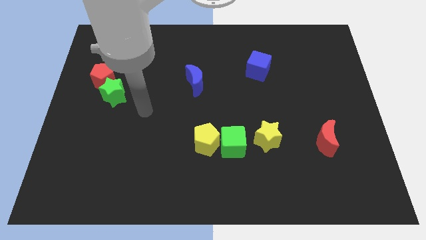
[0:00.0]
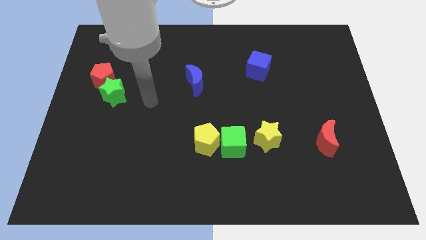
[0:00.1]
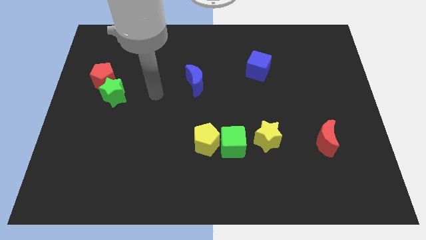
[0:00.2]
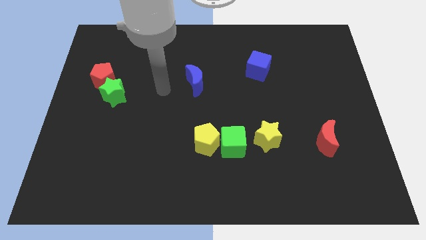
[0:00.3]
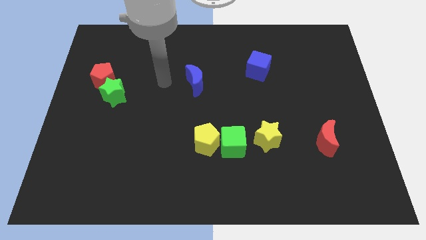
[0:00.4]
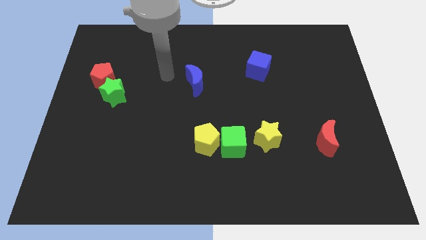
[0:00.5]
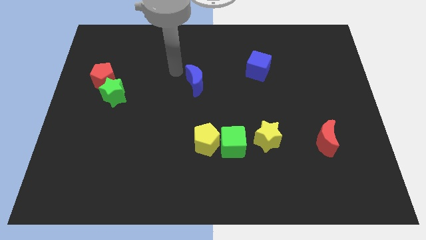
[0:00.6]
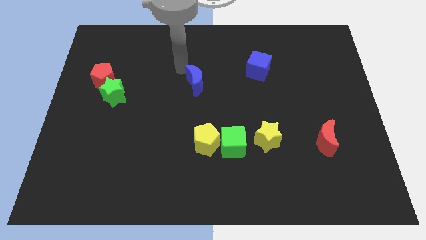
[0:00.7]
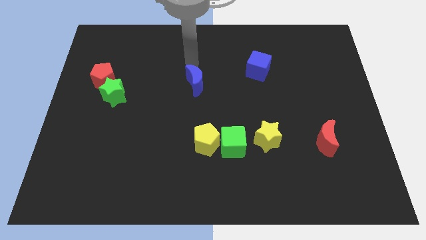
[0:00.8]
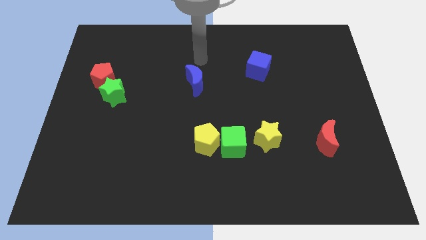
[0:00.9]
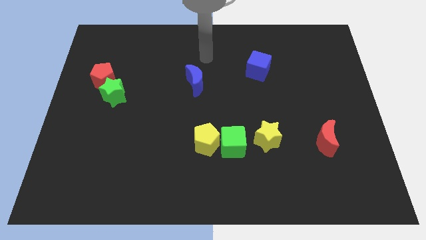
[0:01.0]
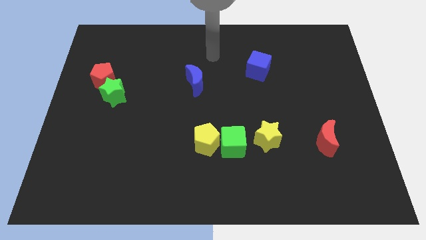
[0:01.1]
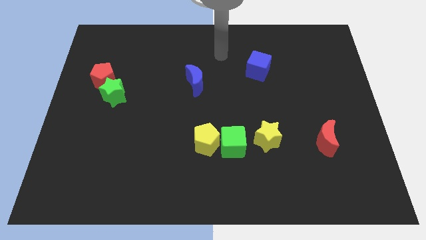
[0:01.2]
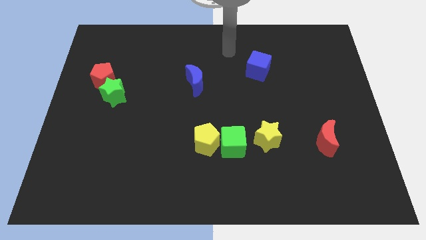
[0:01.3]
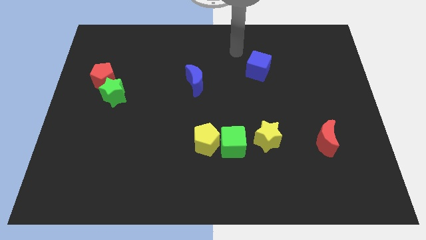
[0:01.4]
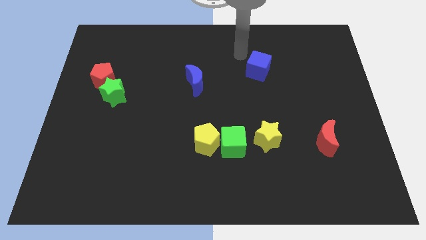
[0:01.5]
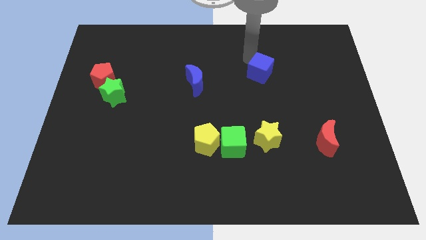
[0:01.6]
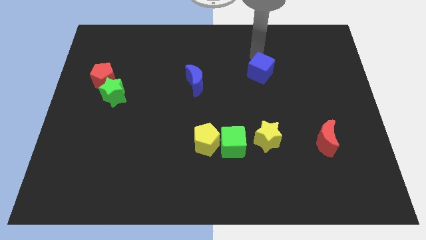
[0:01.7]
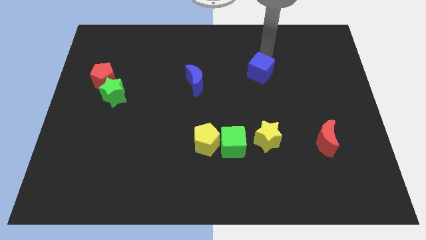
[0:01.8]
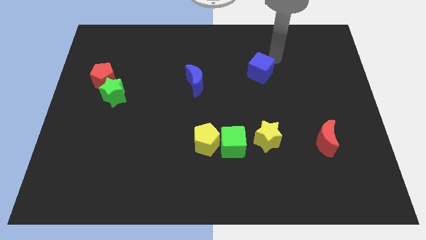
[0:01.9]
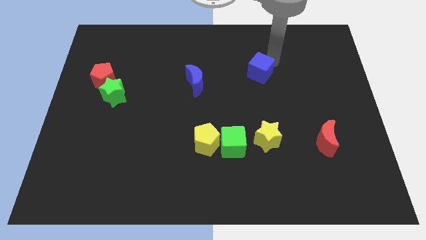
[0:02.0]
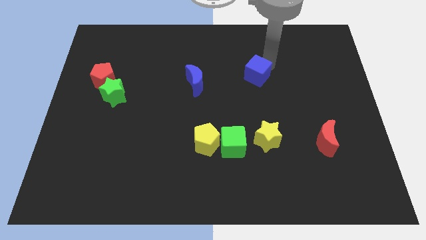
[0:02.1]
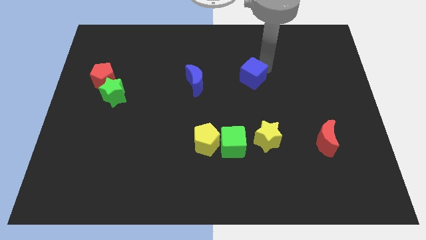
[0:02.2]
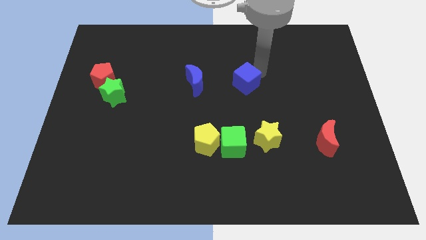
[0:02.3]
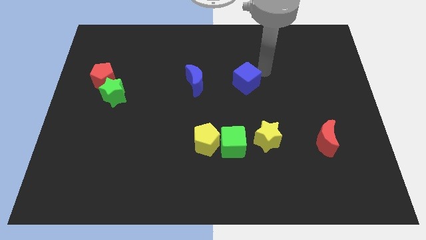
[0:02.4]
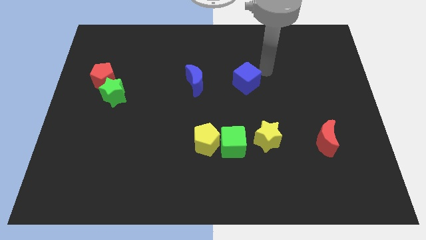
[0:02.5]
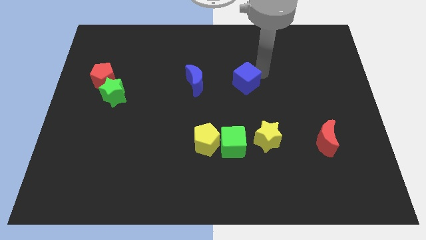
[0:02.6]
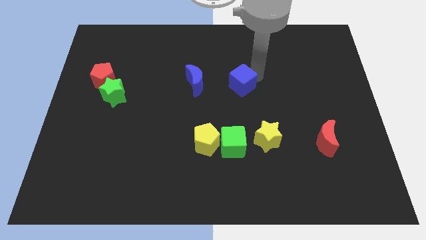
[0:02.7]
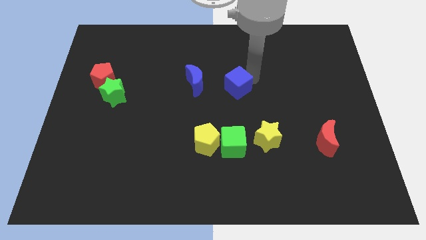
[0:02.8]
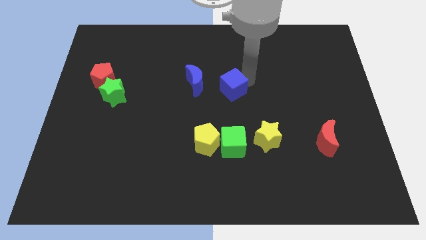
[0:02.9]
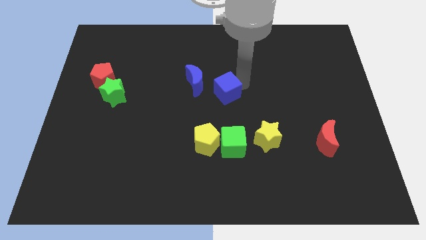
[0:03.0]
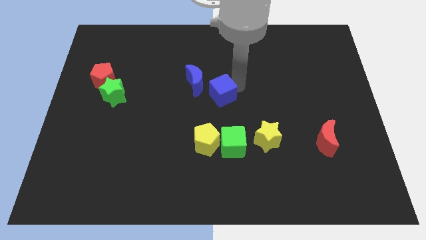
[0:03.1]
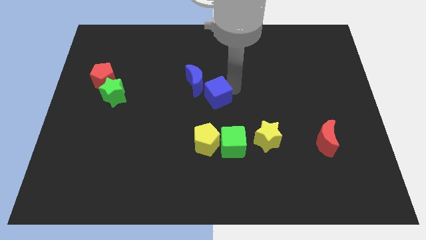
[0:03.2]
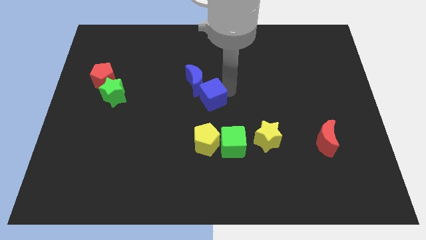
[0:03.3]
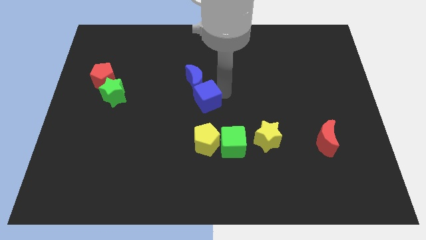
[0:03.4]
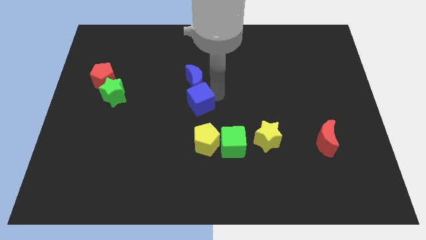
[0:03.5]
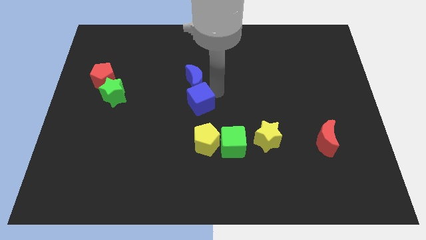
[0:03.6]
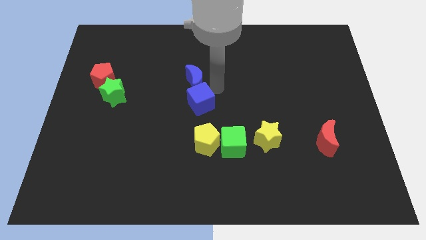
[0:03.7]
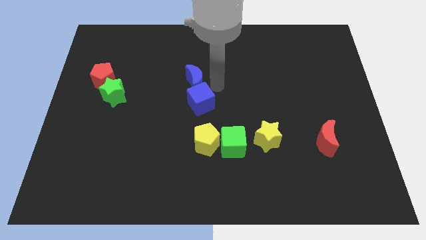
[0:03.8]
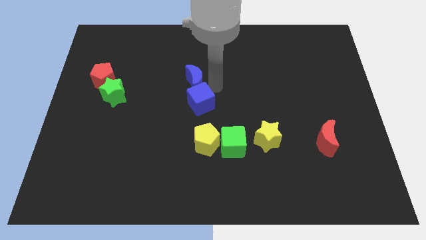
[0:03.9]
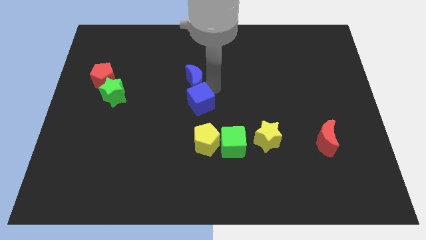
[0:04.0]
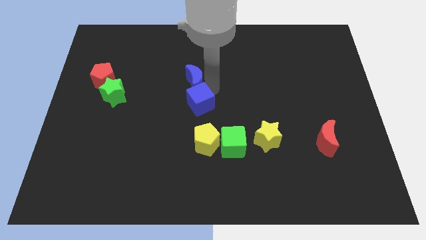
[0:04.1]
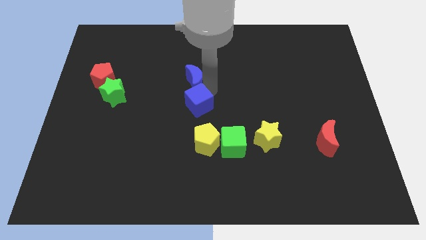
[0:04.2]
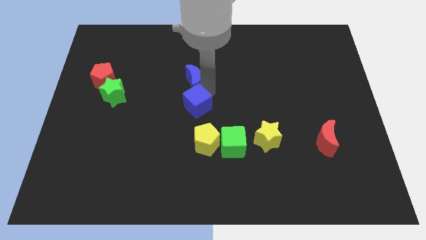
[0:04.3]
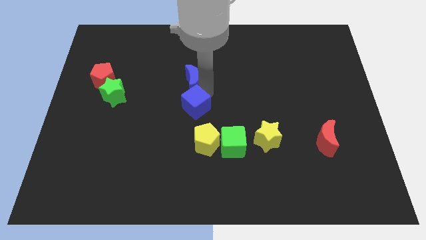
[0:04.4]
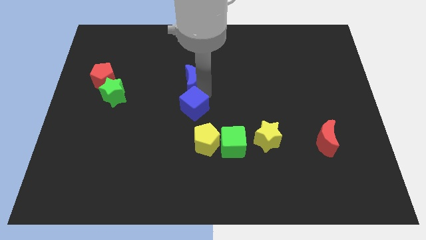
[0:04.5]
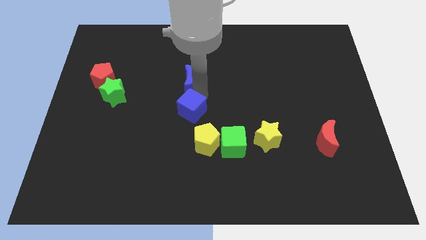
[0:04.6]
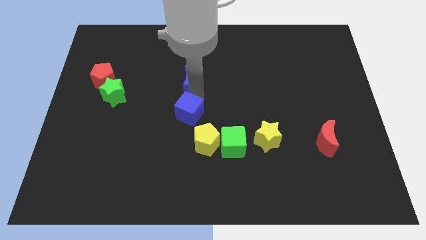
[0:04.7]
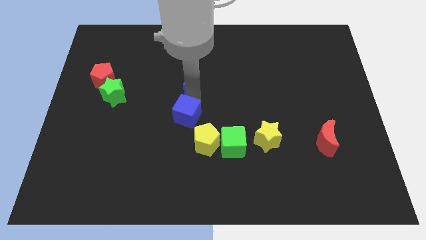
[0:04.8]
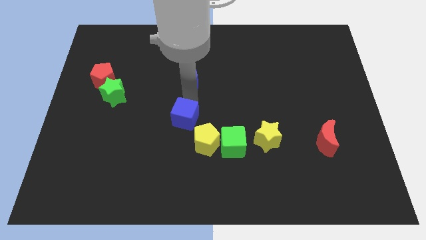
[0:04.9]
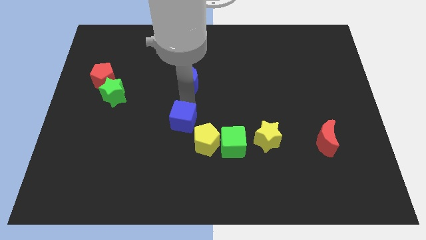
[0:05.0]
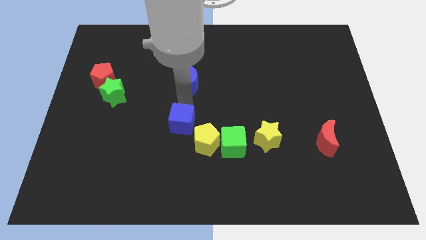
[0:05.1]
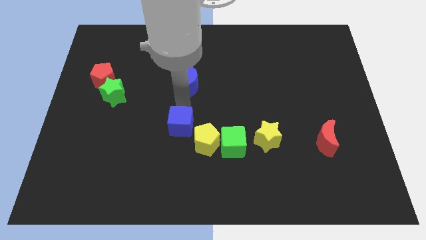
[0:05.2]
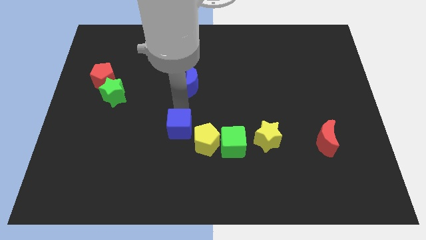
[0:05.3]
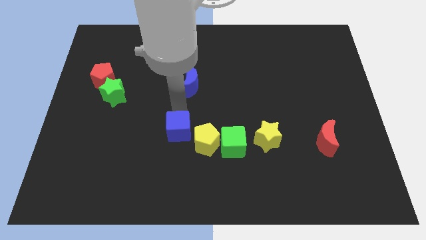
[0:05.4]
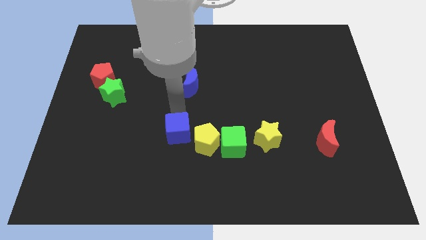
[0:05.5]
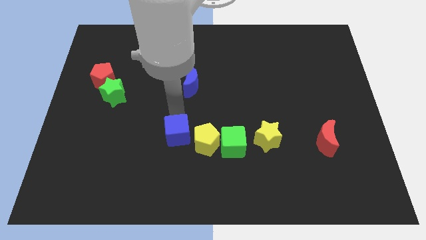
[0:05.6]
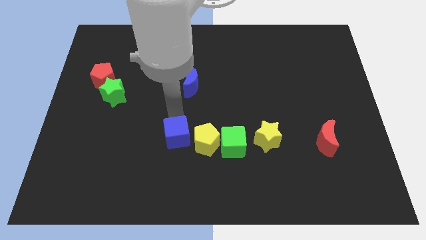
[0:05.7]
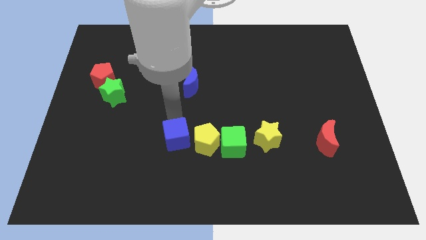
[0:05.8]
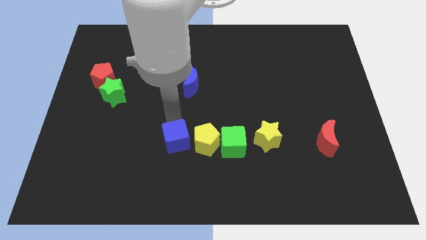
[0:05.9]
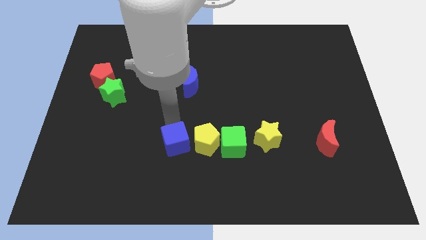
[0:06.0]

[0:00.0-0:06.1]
move the blue cube diagonally down and to the left of the yellow pentagon

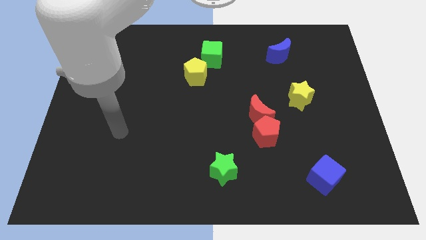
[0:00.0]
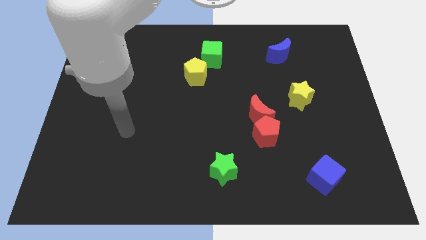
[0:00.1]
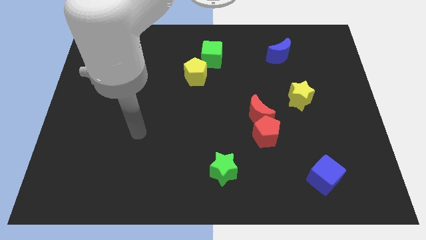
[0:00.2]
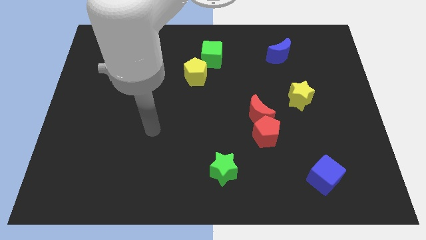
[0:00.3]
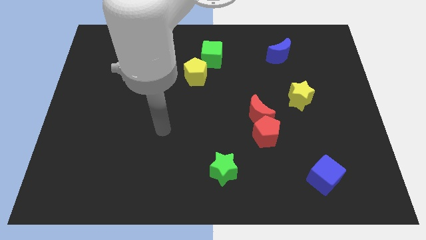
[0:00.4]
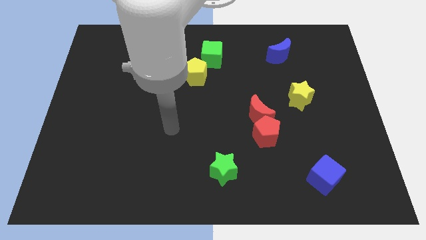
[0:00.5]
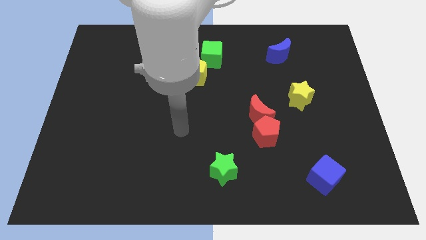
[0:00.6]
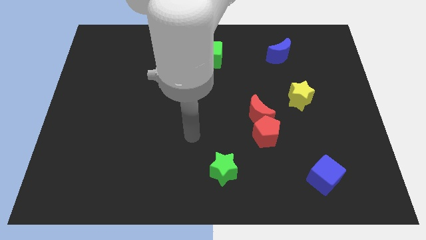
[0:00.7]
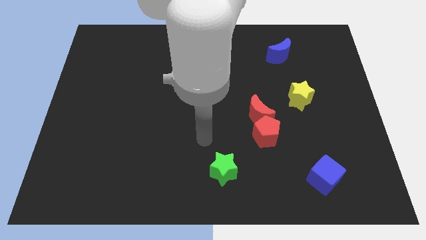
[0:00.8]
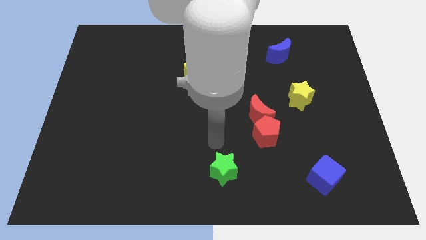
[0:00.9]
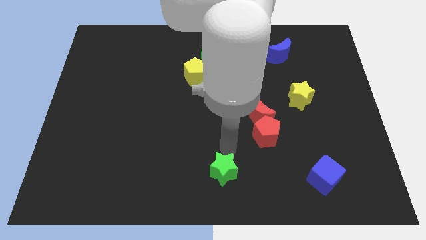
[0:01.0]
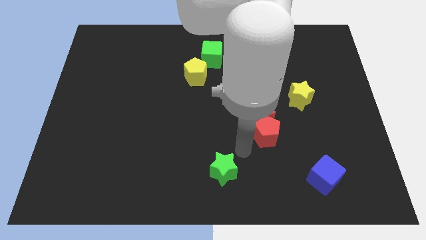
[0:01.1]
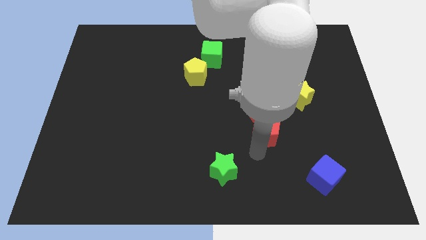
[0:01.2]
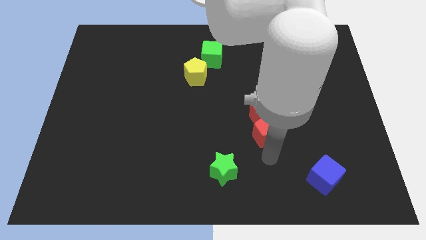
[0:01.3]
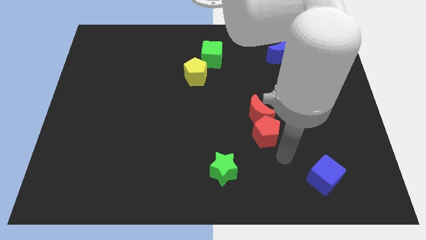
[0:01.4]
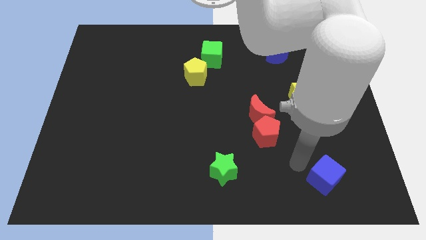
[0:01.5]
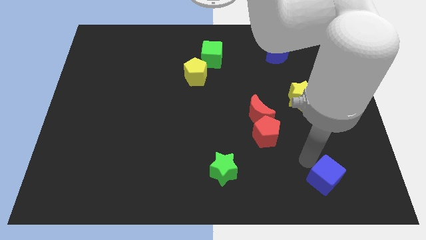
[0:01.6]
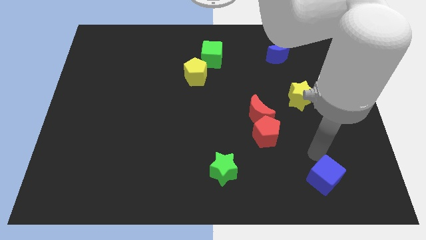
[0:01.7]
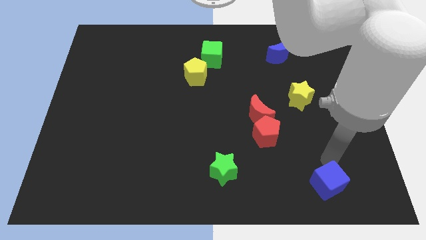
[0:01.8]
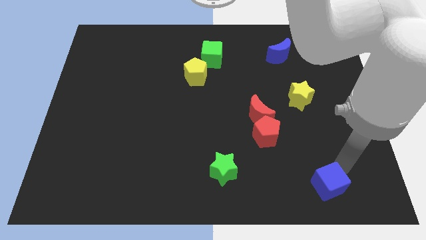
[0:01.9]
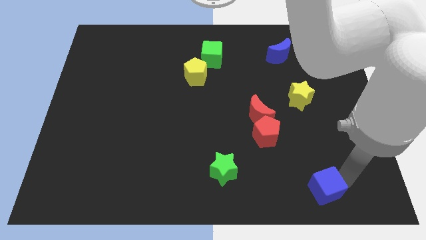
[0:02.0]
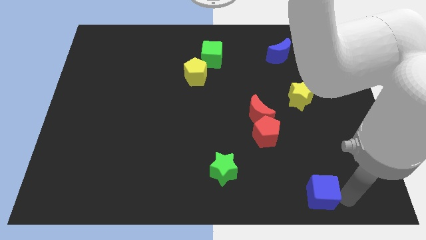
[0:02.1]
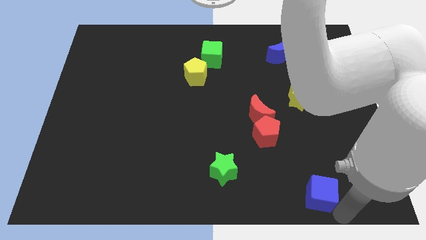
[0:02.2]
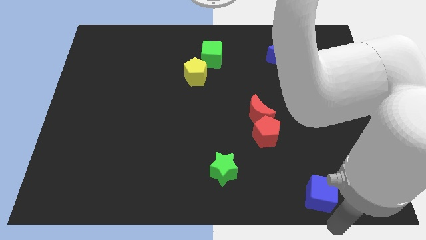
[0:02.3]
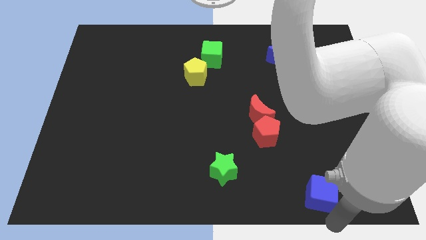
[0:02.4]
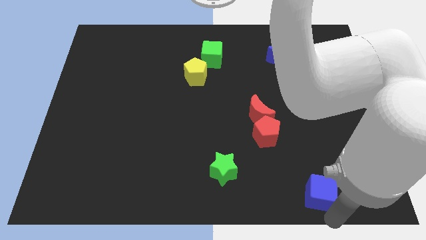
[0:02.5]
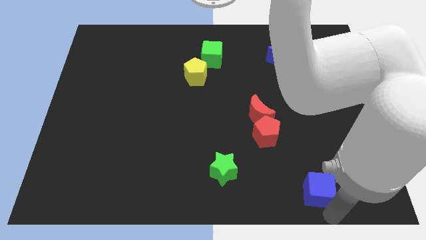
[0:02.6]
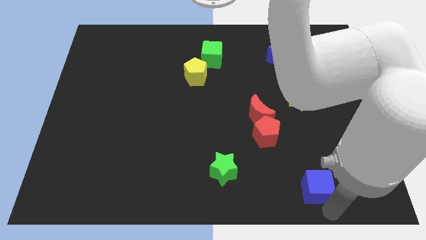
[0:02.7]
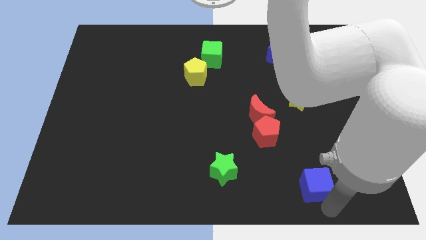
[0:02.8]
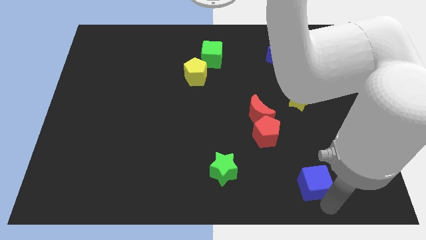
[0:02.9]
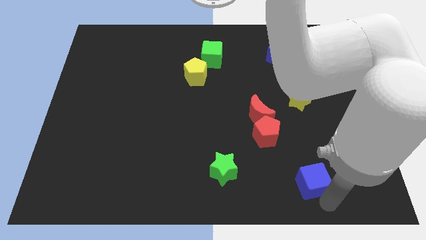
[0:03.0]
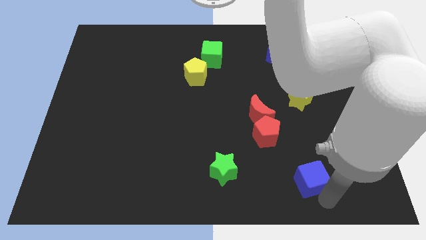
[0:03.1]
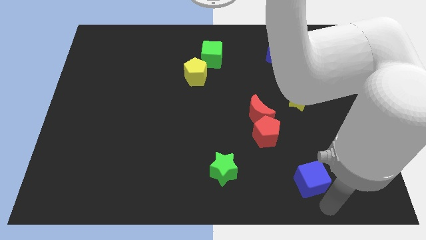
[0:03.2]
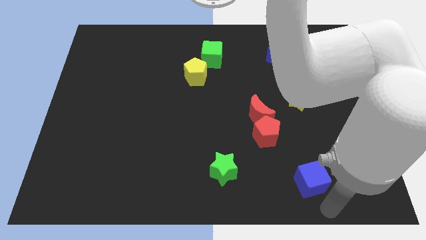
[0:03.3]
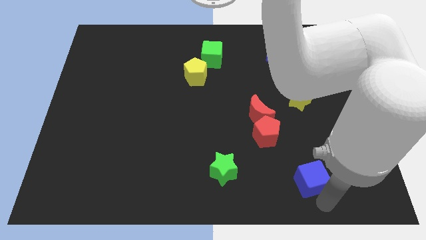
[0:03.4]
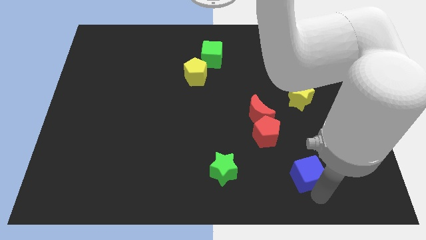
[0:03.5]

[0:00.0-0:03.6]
slide the blue cube to the bottom right side of the red pentagon
